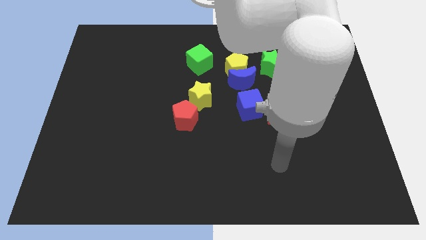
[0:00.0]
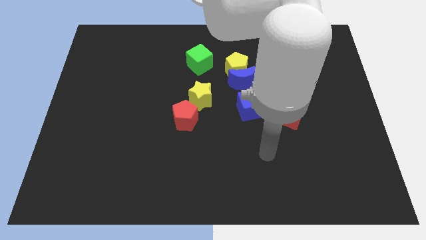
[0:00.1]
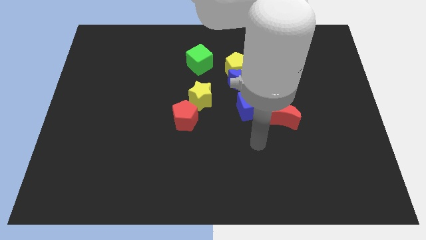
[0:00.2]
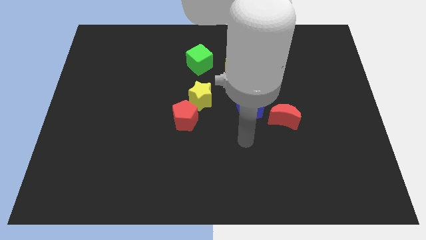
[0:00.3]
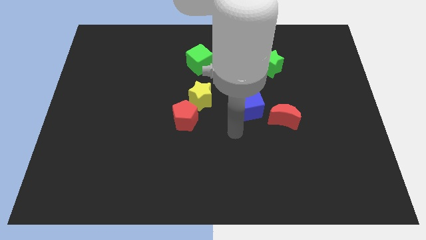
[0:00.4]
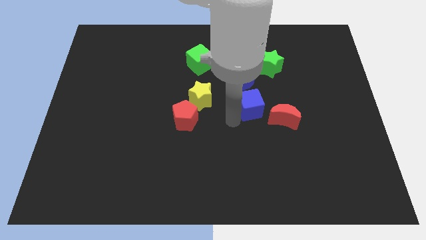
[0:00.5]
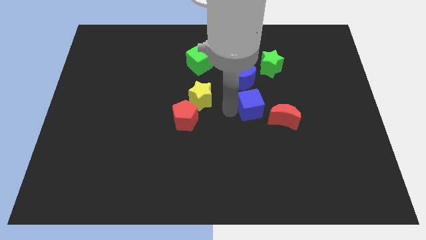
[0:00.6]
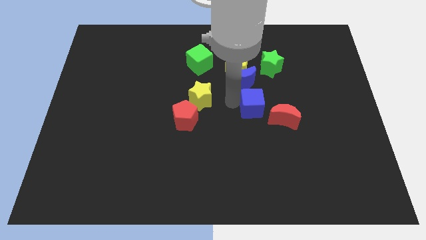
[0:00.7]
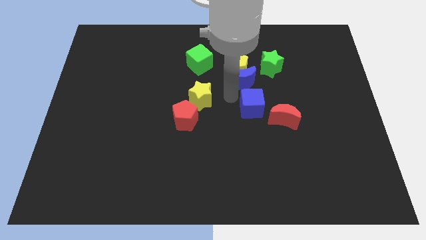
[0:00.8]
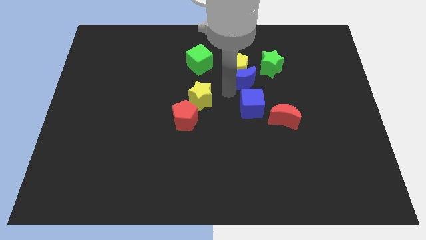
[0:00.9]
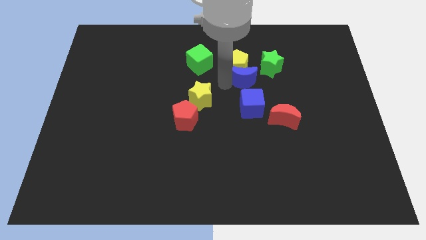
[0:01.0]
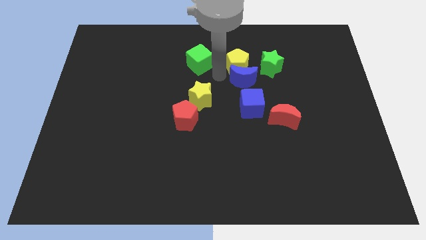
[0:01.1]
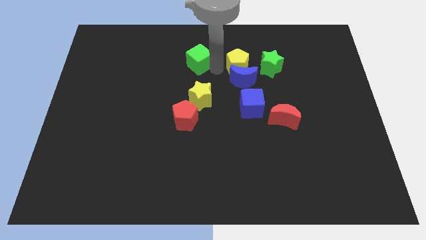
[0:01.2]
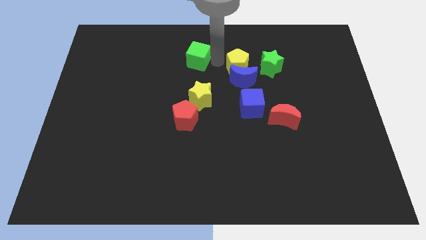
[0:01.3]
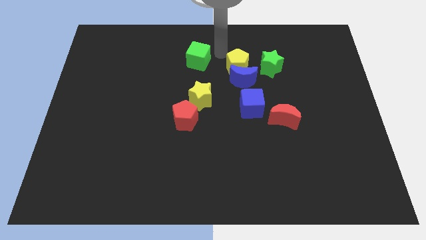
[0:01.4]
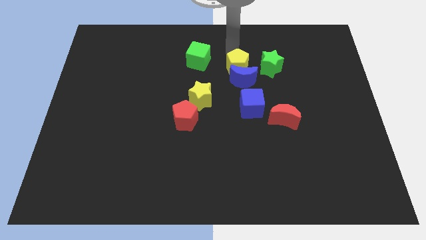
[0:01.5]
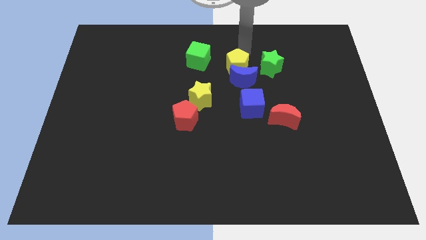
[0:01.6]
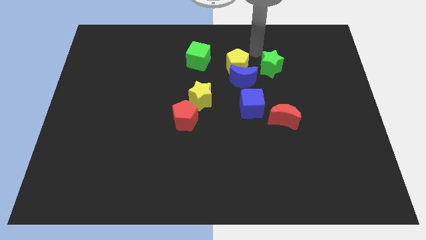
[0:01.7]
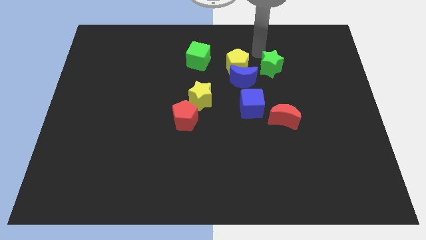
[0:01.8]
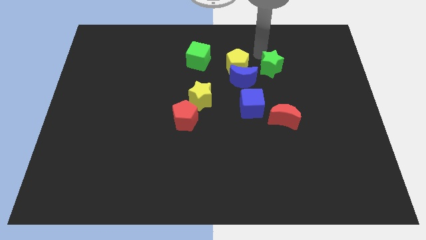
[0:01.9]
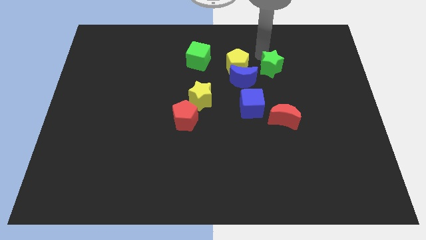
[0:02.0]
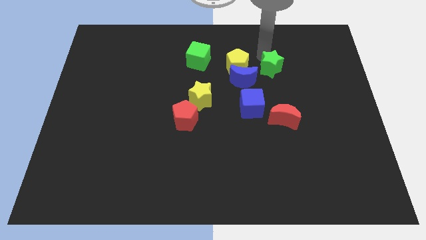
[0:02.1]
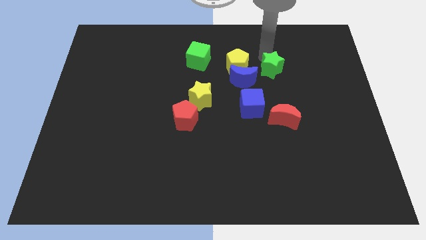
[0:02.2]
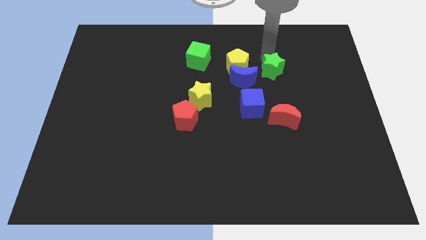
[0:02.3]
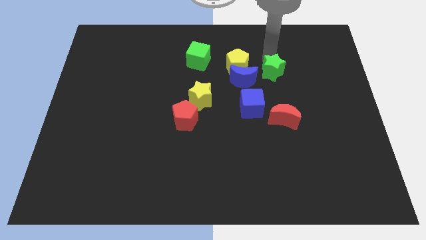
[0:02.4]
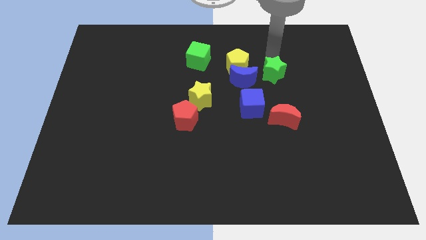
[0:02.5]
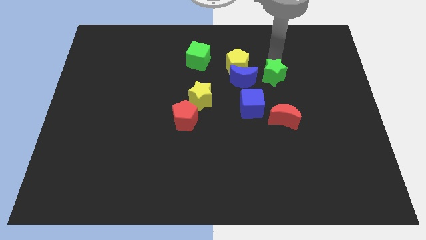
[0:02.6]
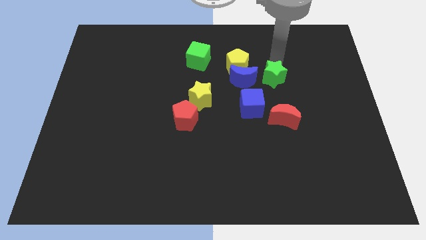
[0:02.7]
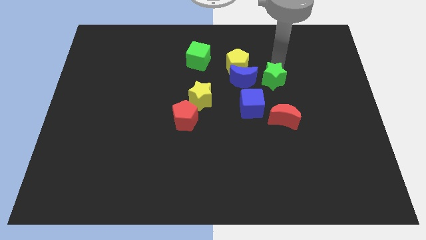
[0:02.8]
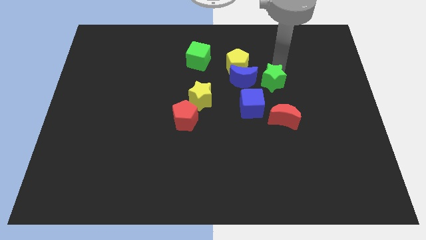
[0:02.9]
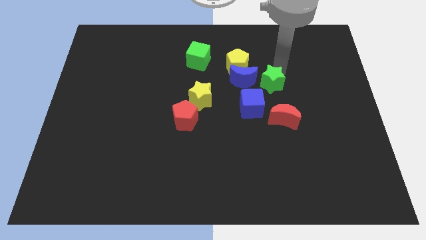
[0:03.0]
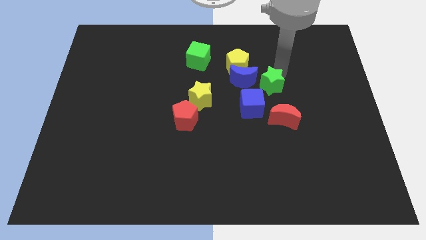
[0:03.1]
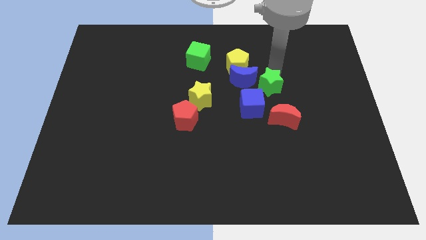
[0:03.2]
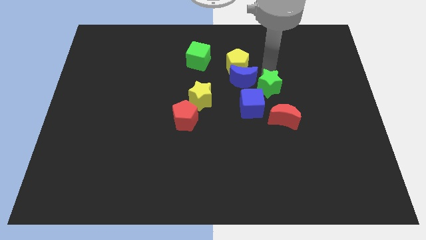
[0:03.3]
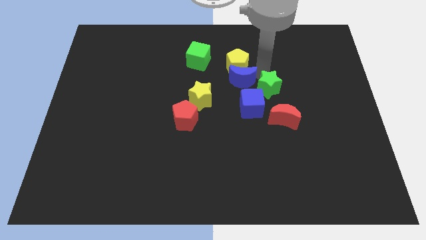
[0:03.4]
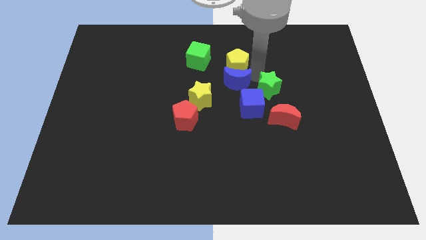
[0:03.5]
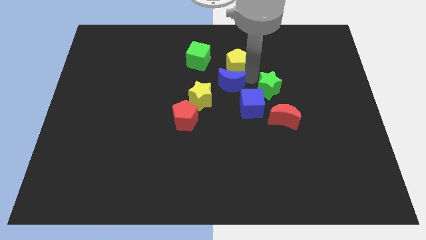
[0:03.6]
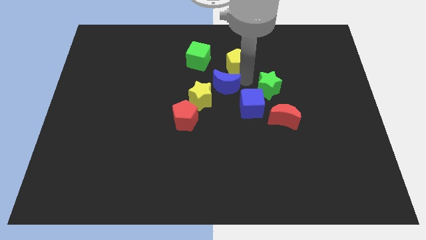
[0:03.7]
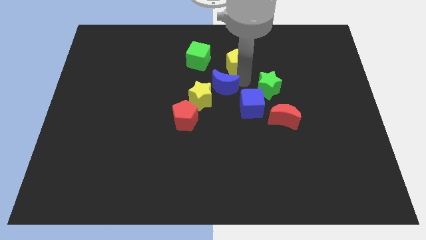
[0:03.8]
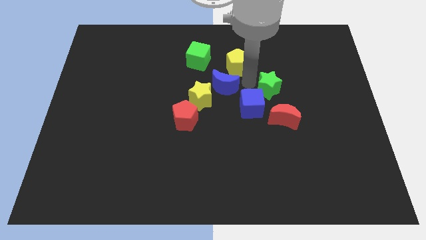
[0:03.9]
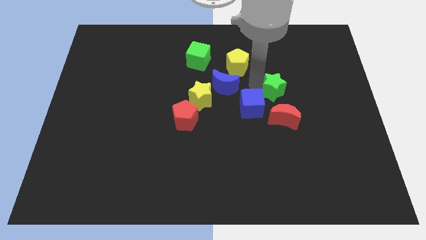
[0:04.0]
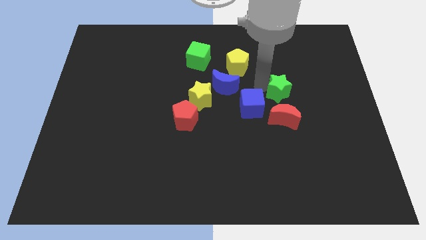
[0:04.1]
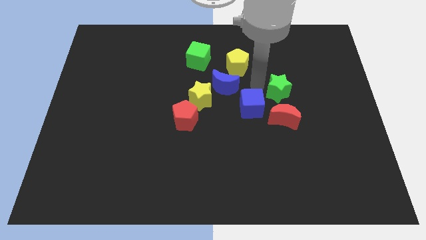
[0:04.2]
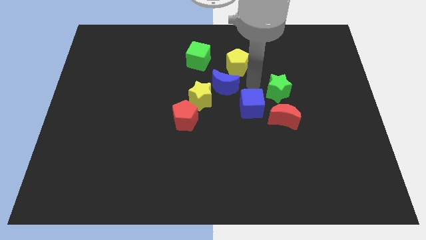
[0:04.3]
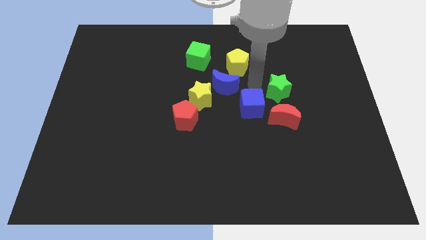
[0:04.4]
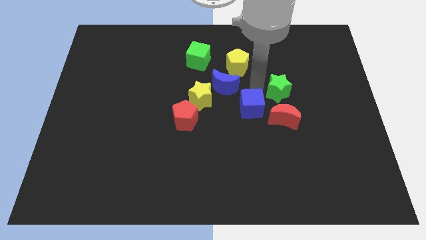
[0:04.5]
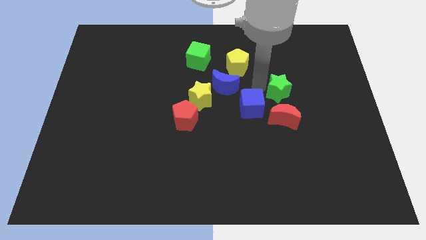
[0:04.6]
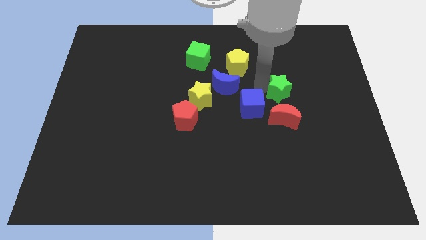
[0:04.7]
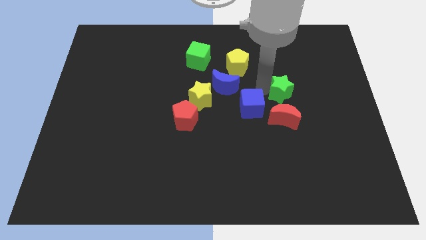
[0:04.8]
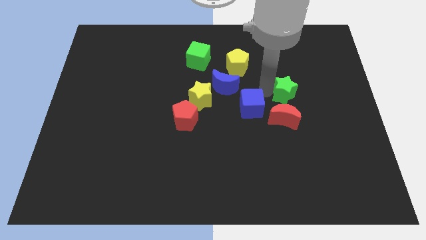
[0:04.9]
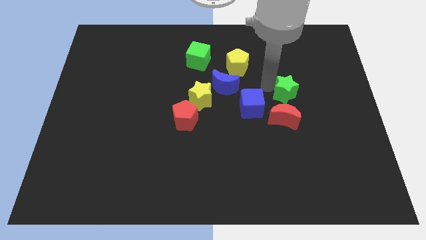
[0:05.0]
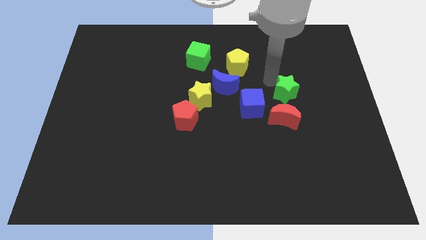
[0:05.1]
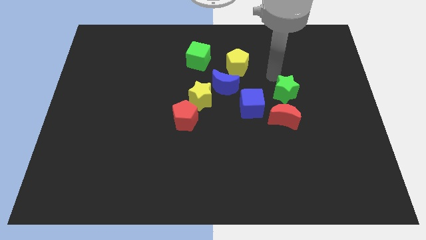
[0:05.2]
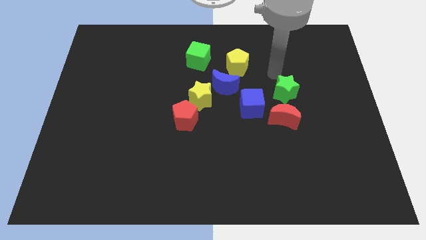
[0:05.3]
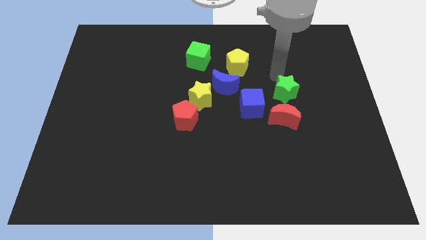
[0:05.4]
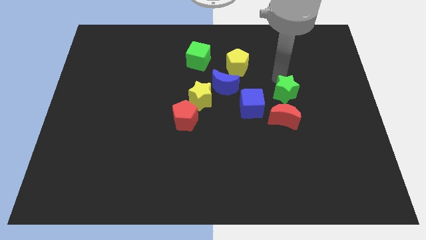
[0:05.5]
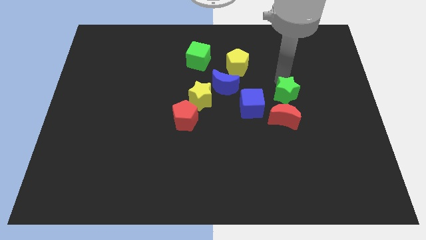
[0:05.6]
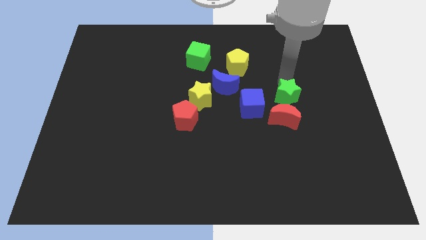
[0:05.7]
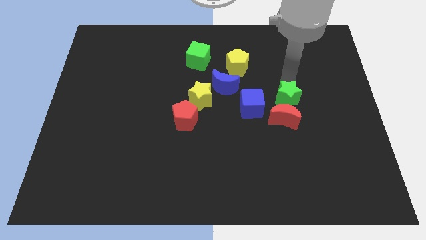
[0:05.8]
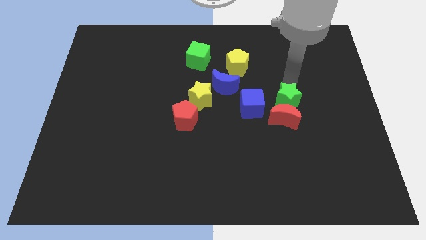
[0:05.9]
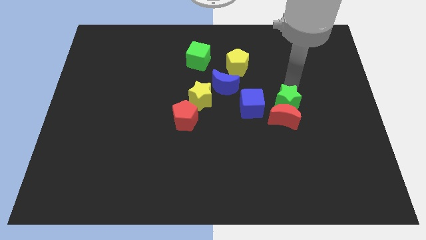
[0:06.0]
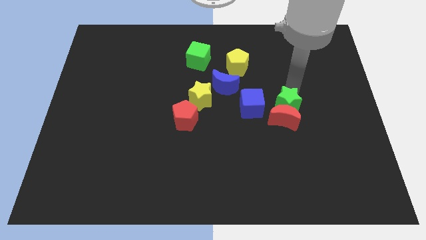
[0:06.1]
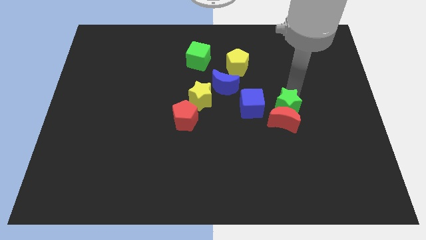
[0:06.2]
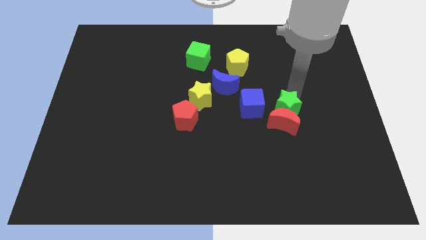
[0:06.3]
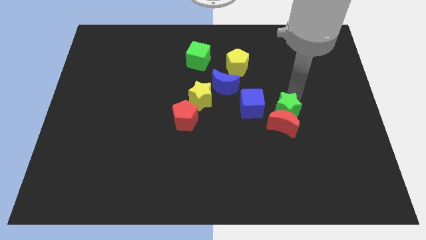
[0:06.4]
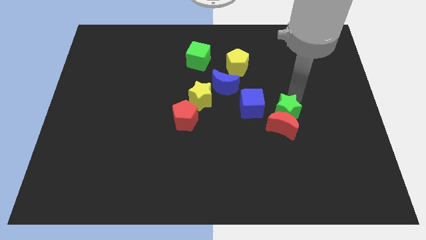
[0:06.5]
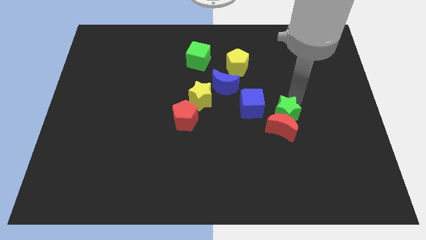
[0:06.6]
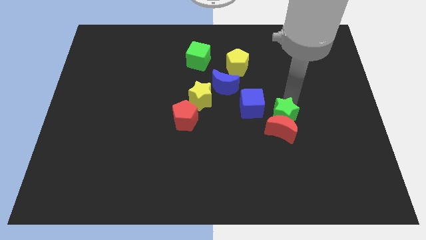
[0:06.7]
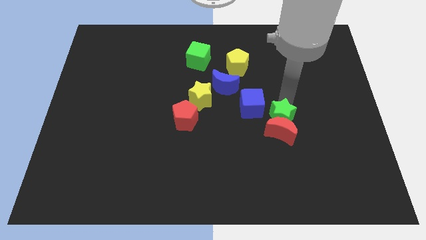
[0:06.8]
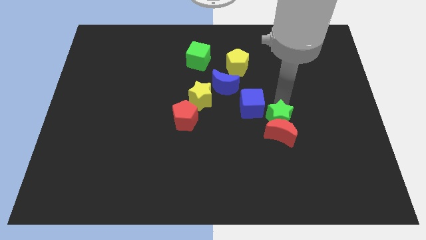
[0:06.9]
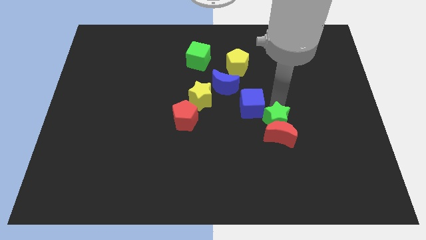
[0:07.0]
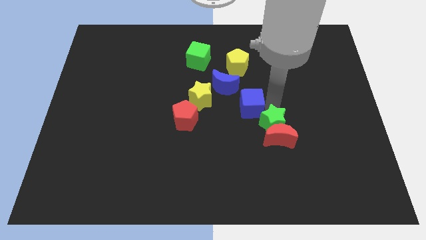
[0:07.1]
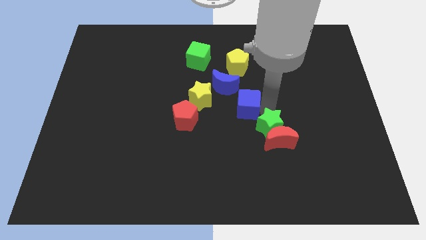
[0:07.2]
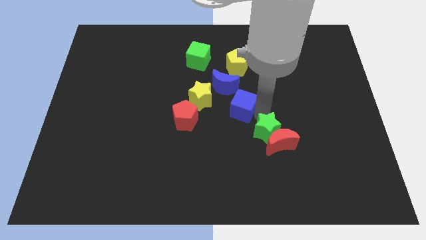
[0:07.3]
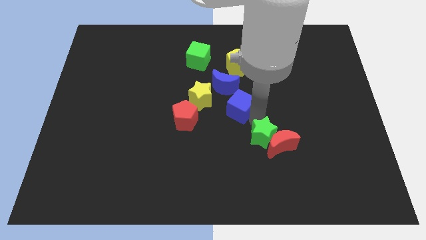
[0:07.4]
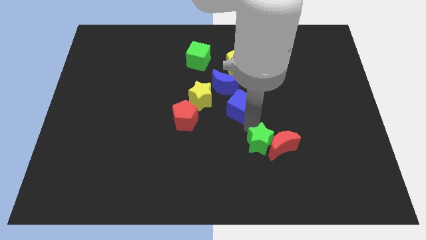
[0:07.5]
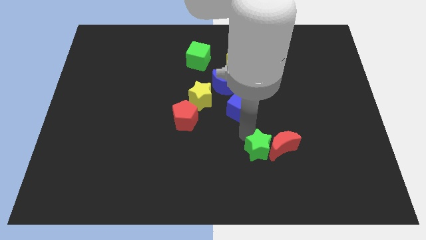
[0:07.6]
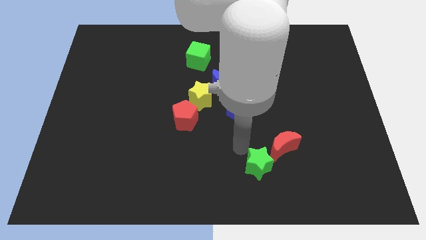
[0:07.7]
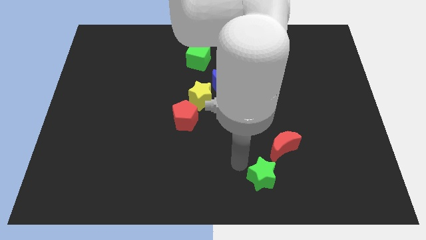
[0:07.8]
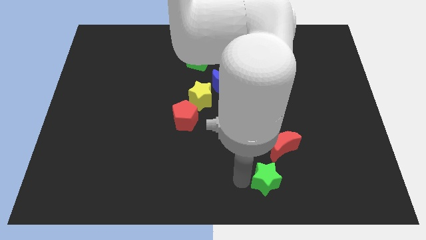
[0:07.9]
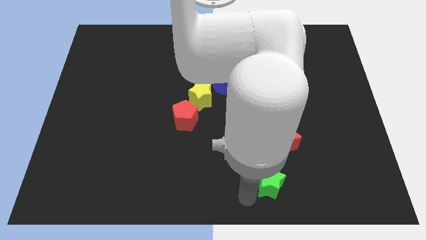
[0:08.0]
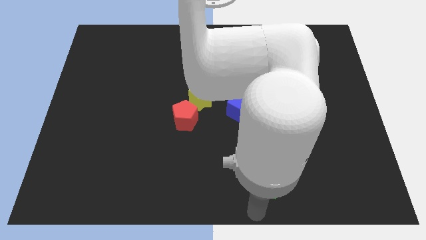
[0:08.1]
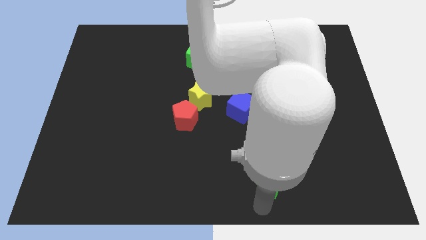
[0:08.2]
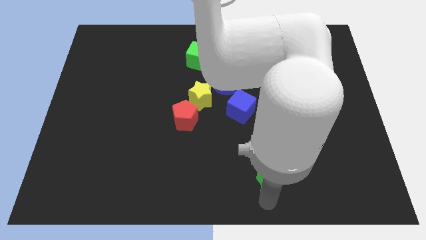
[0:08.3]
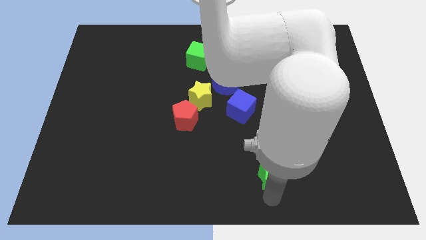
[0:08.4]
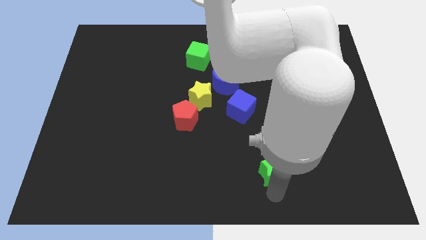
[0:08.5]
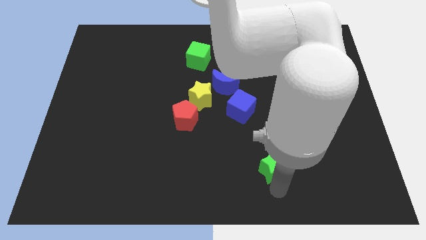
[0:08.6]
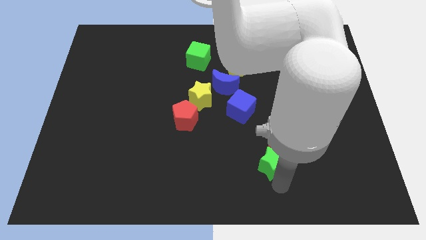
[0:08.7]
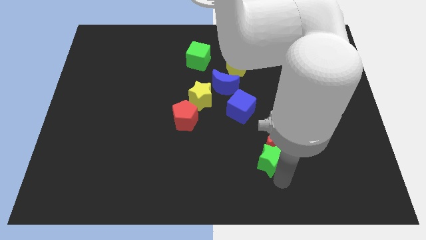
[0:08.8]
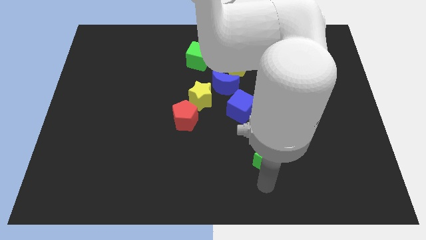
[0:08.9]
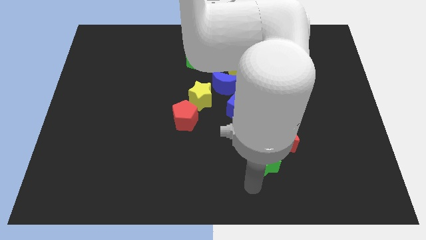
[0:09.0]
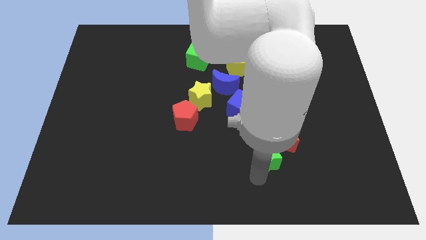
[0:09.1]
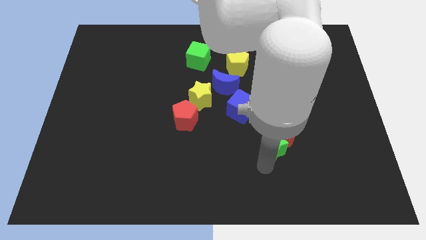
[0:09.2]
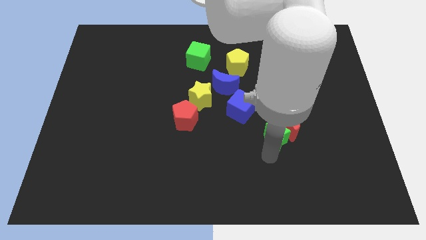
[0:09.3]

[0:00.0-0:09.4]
put the green star left of the red moon
